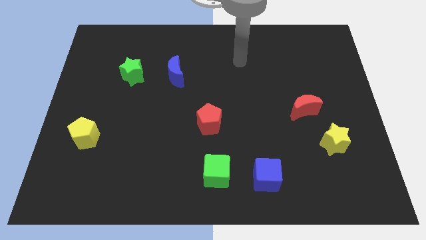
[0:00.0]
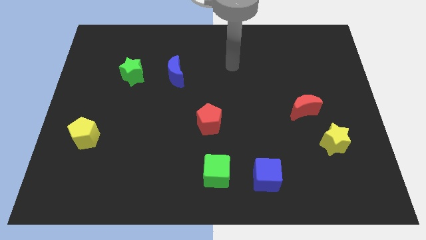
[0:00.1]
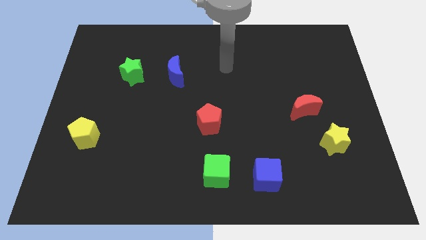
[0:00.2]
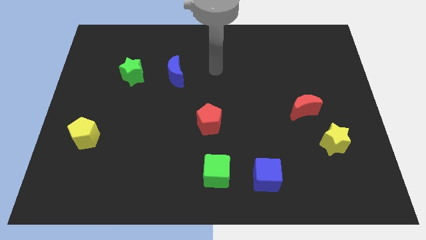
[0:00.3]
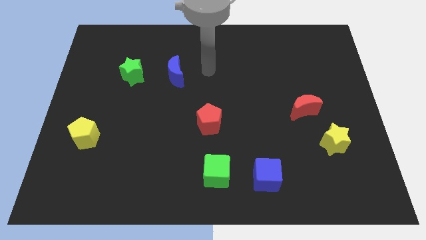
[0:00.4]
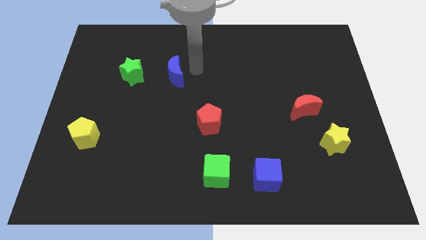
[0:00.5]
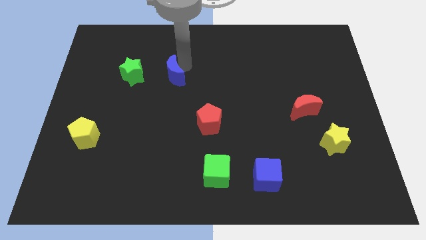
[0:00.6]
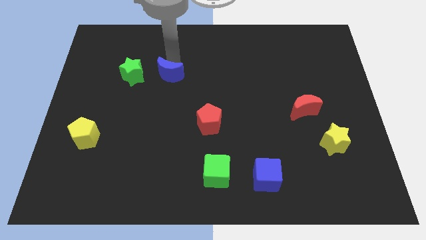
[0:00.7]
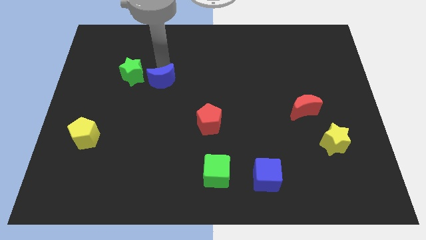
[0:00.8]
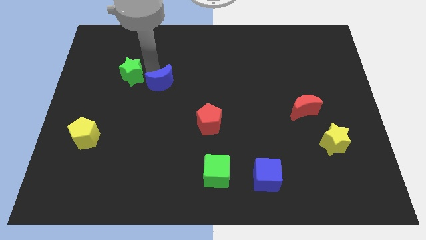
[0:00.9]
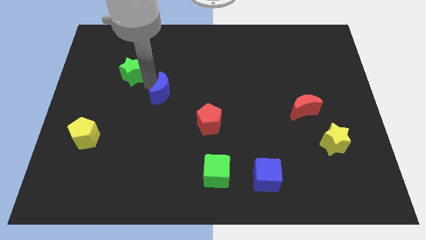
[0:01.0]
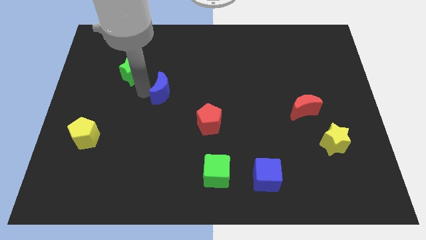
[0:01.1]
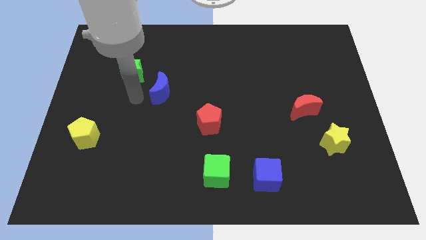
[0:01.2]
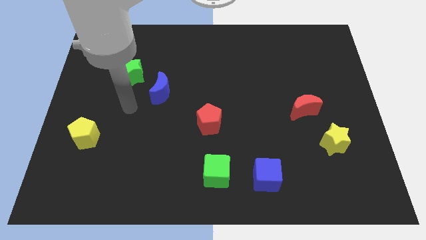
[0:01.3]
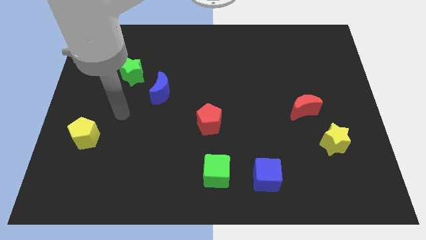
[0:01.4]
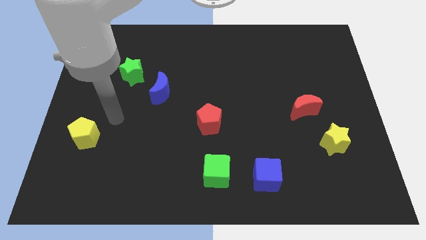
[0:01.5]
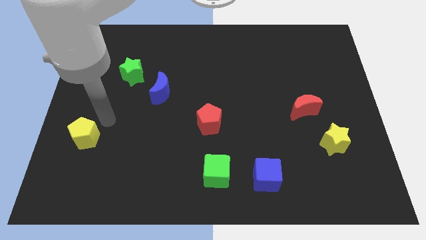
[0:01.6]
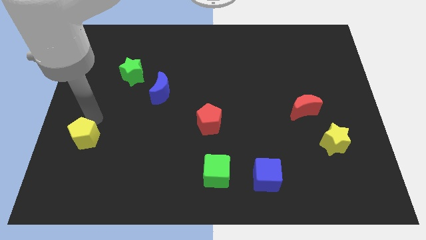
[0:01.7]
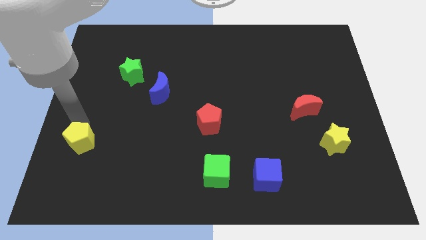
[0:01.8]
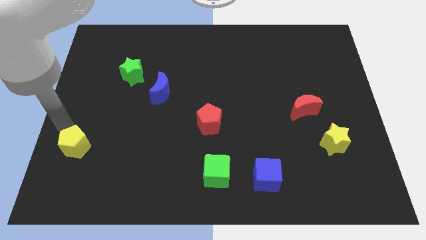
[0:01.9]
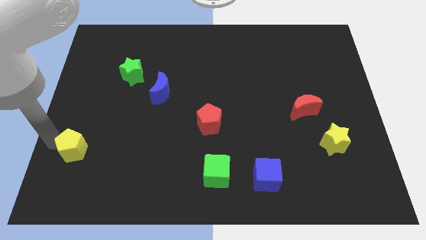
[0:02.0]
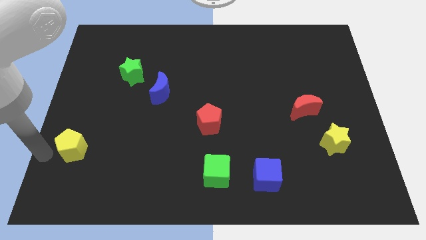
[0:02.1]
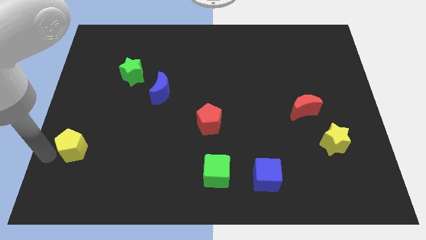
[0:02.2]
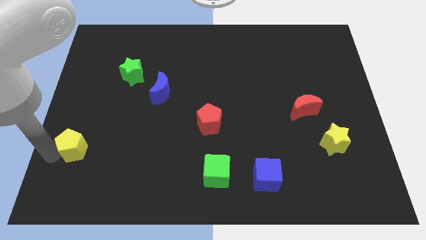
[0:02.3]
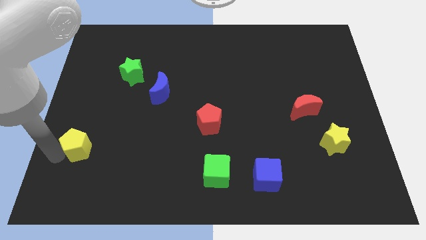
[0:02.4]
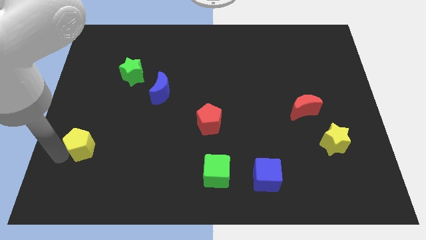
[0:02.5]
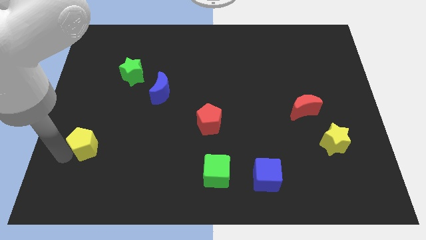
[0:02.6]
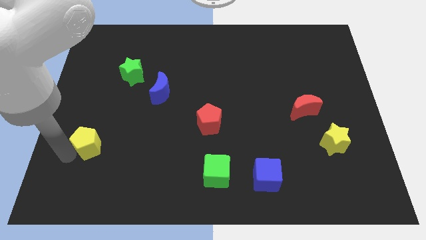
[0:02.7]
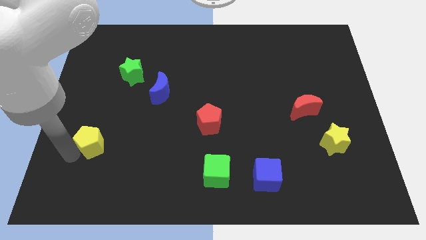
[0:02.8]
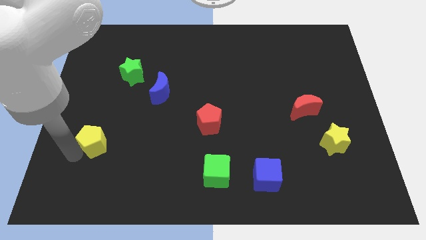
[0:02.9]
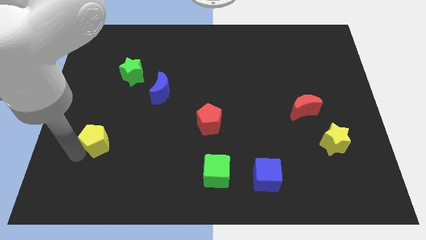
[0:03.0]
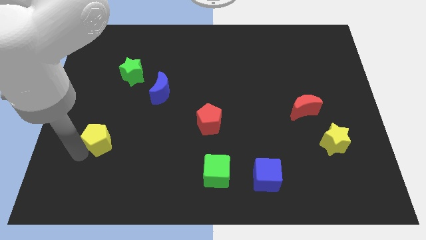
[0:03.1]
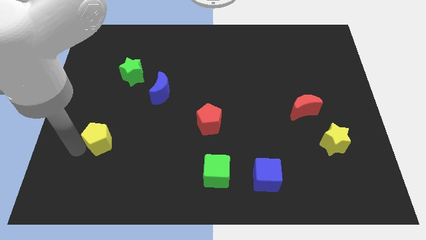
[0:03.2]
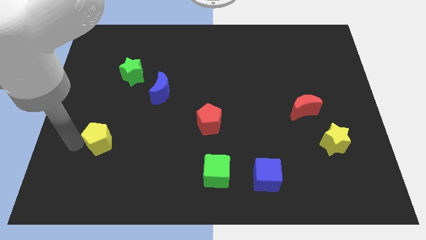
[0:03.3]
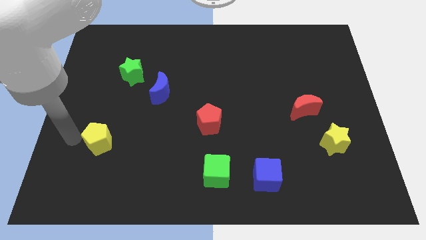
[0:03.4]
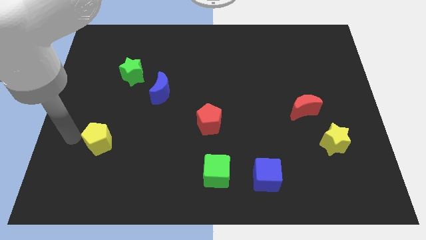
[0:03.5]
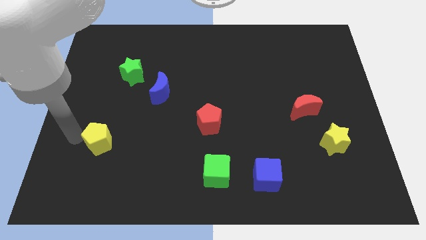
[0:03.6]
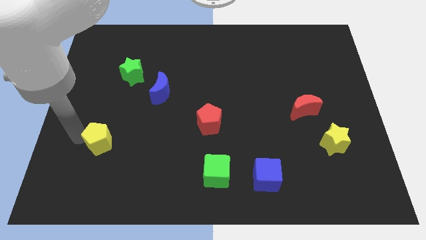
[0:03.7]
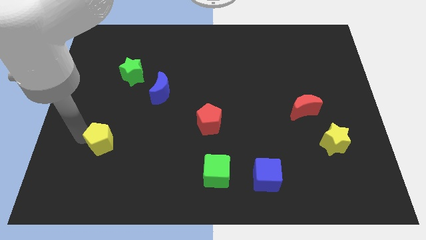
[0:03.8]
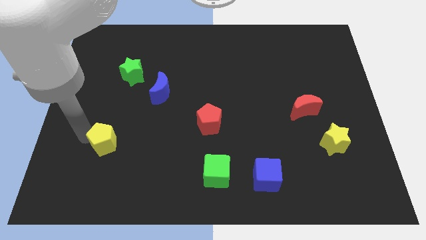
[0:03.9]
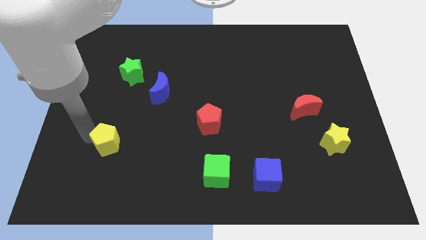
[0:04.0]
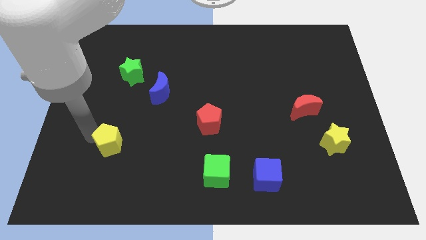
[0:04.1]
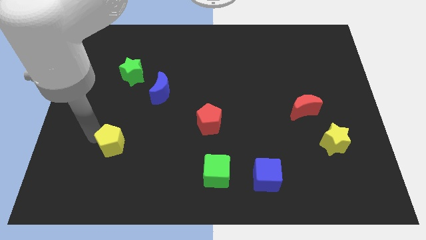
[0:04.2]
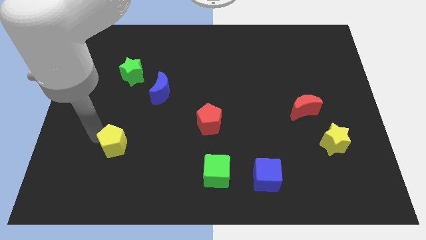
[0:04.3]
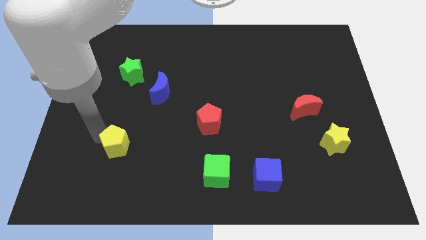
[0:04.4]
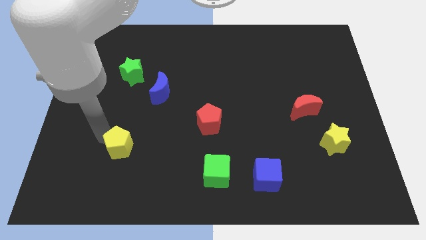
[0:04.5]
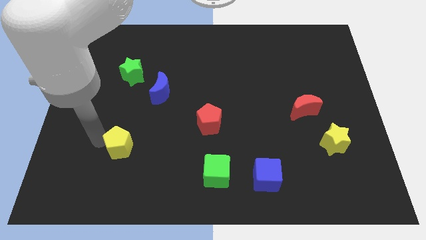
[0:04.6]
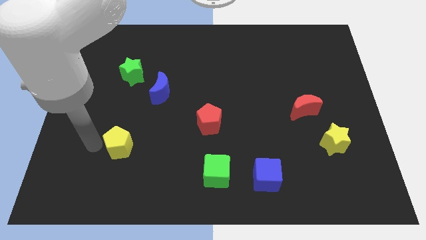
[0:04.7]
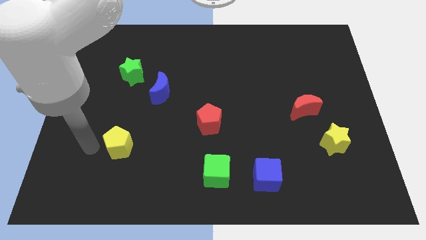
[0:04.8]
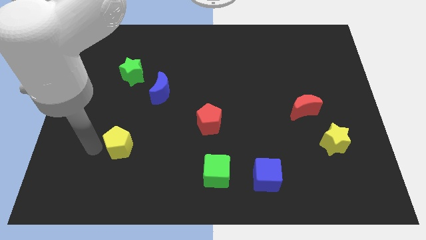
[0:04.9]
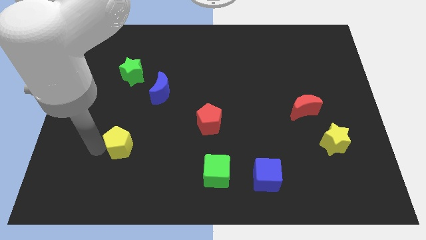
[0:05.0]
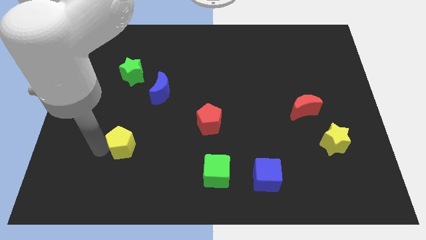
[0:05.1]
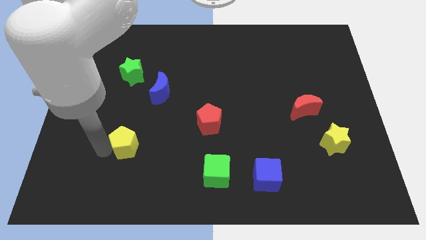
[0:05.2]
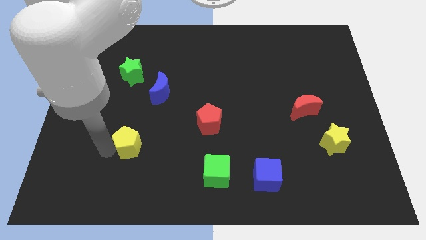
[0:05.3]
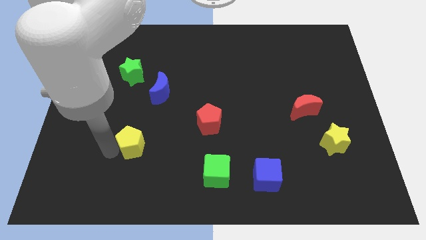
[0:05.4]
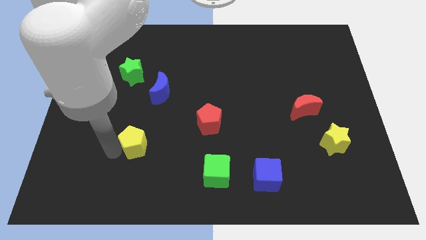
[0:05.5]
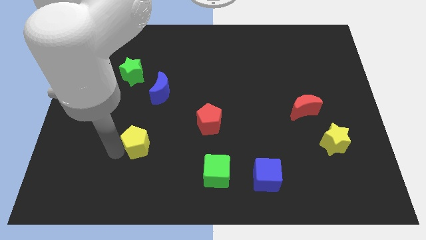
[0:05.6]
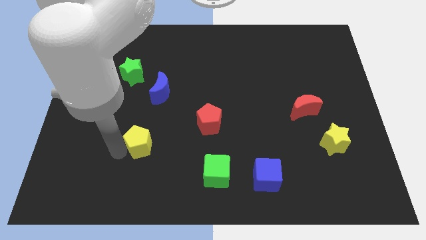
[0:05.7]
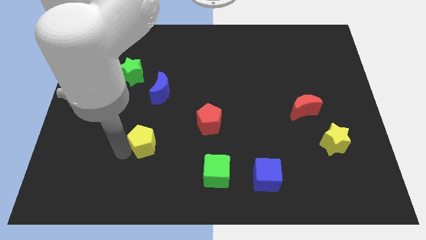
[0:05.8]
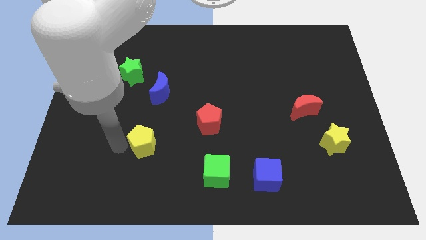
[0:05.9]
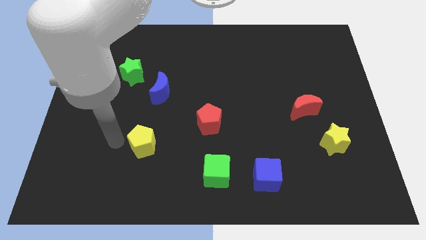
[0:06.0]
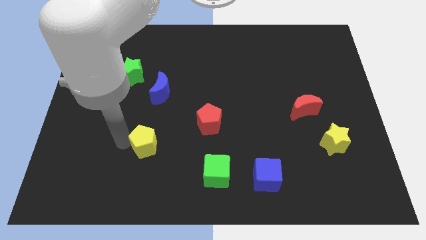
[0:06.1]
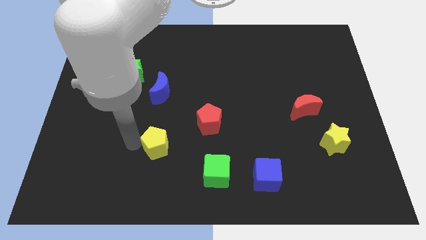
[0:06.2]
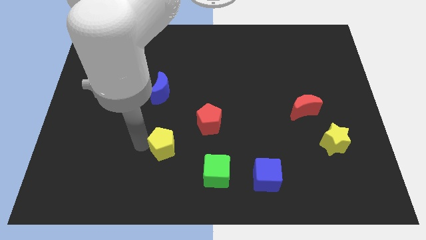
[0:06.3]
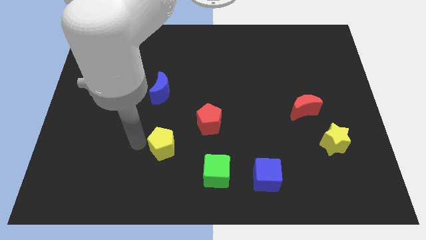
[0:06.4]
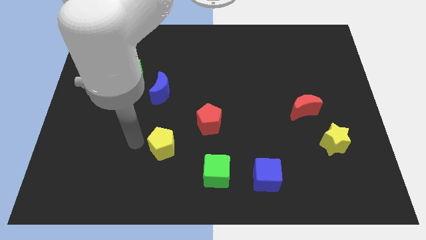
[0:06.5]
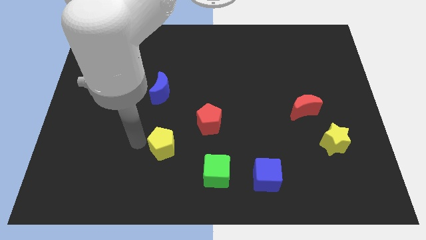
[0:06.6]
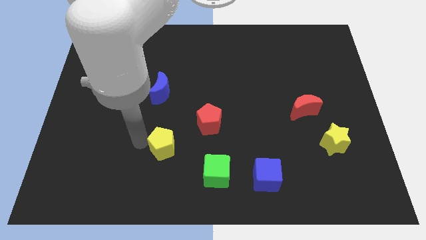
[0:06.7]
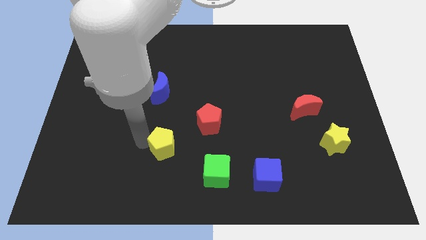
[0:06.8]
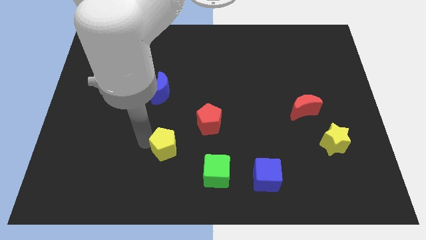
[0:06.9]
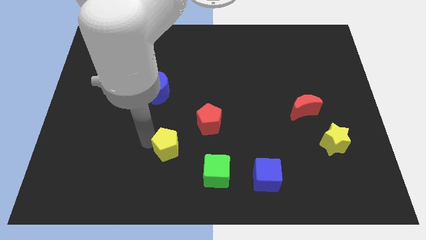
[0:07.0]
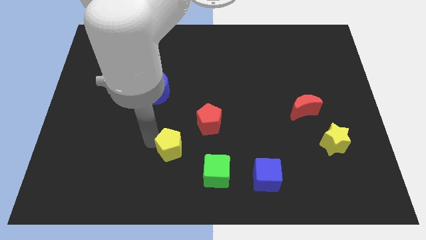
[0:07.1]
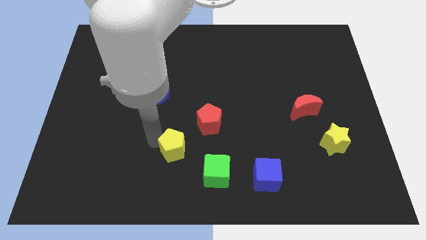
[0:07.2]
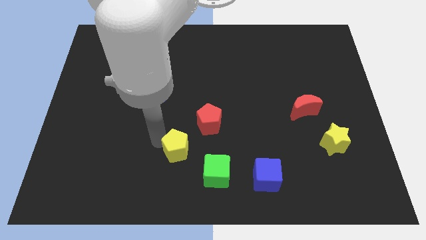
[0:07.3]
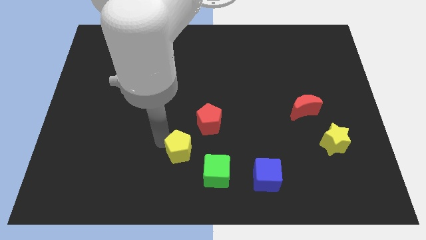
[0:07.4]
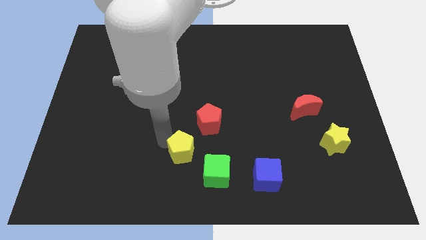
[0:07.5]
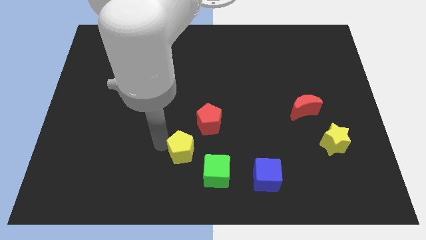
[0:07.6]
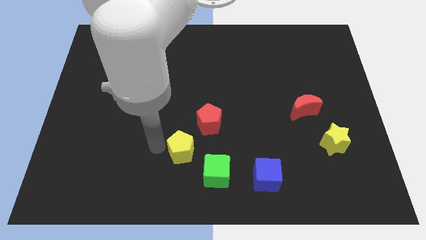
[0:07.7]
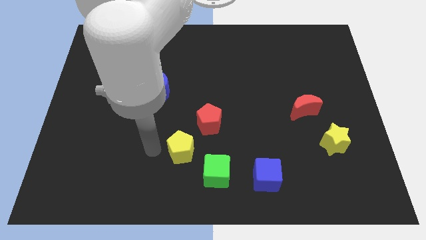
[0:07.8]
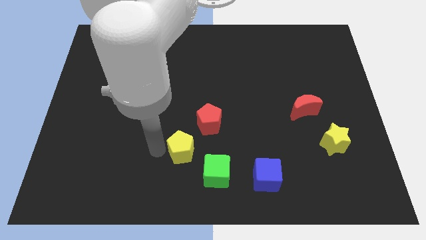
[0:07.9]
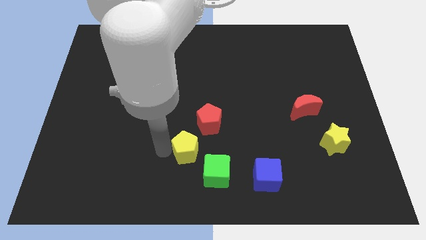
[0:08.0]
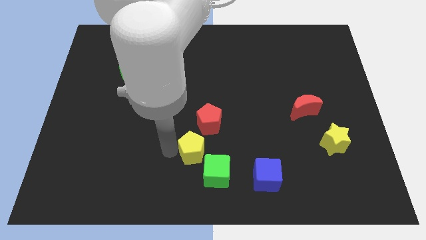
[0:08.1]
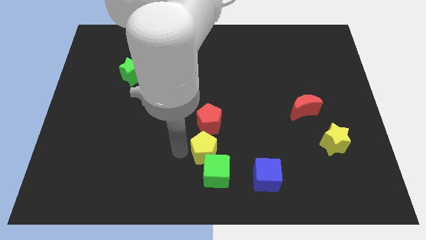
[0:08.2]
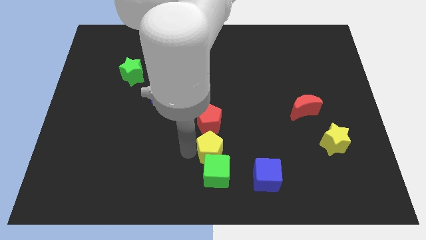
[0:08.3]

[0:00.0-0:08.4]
push the yellow pentagon diagonally up and to the right of the green cube
